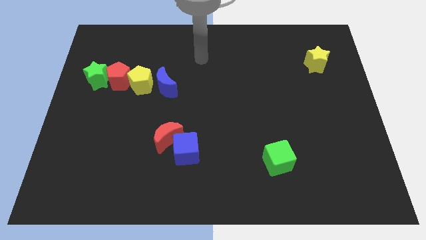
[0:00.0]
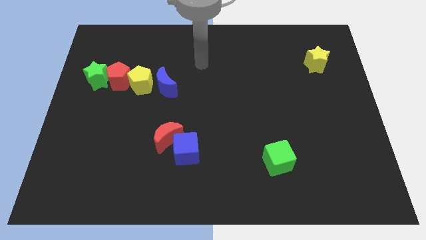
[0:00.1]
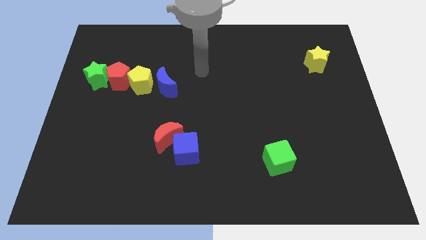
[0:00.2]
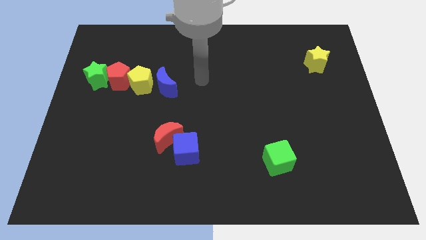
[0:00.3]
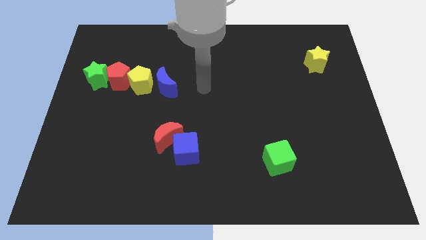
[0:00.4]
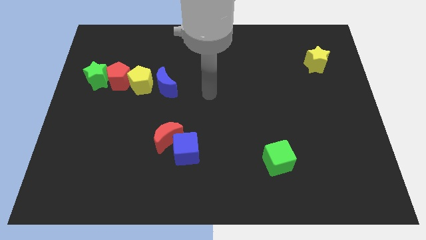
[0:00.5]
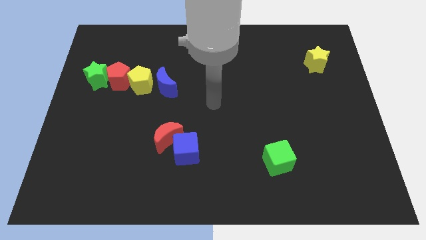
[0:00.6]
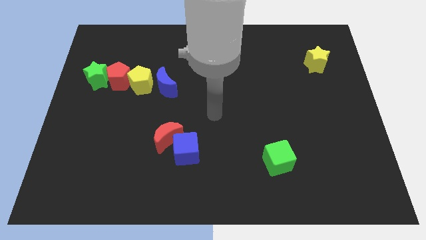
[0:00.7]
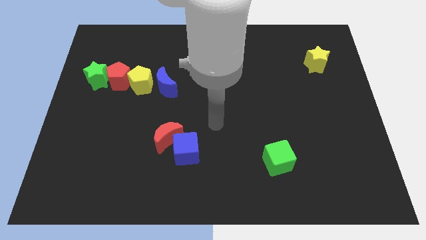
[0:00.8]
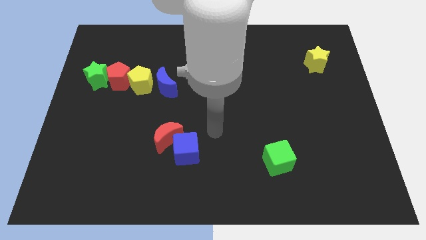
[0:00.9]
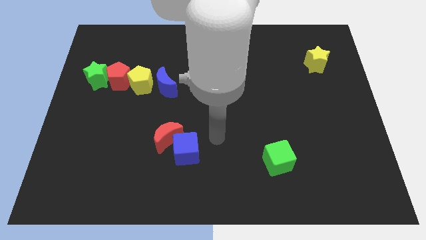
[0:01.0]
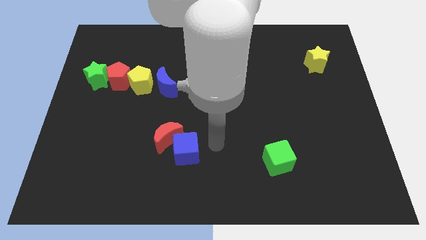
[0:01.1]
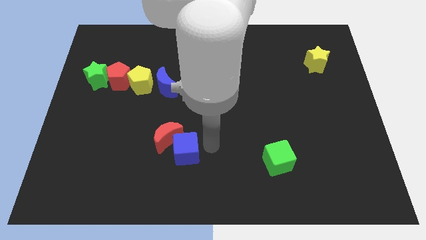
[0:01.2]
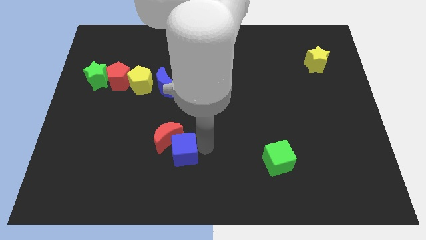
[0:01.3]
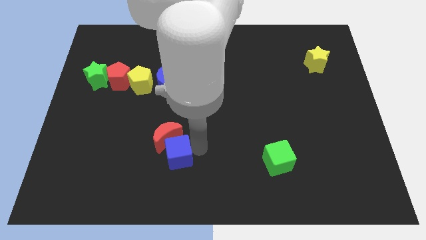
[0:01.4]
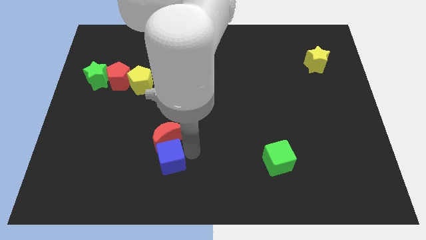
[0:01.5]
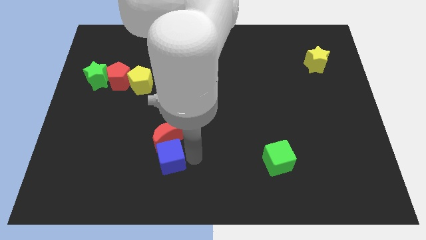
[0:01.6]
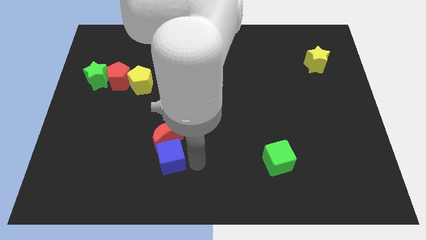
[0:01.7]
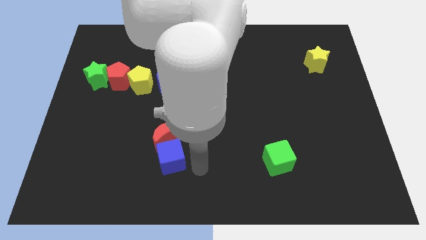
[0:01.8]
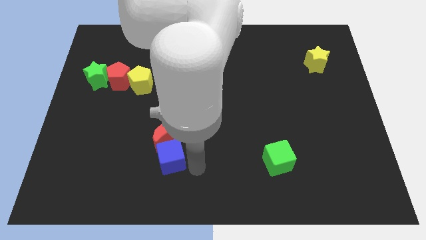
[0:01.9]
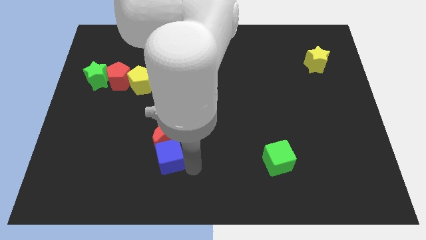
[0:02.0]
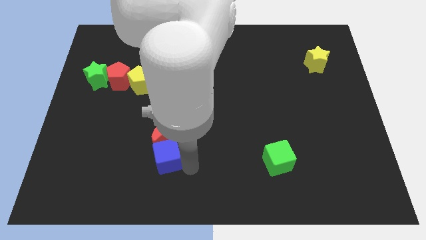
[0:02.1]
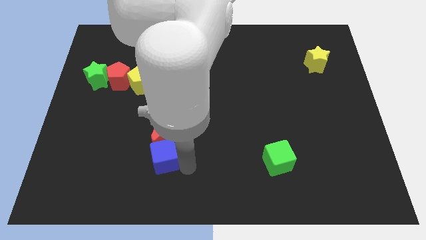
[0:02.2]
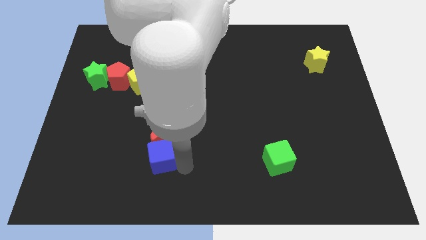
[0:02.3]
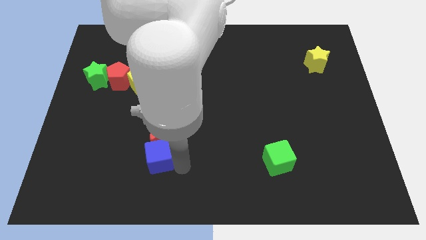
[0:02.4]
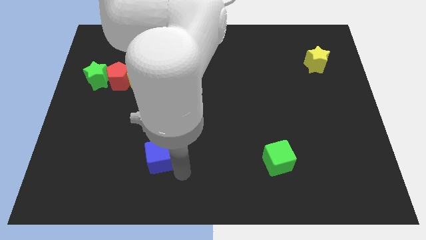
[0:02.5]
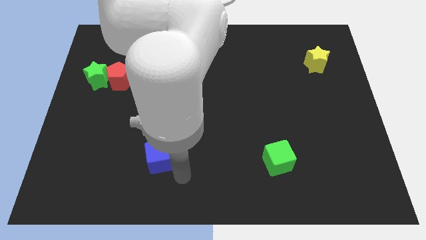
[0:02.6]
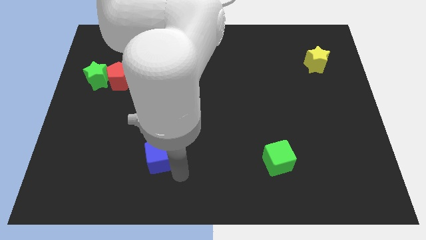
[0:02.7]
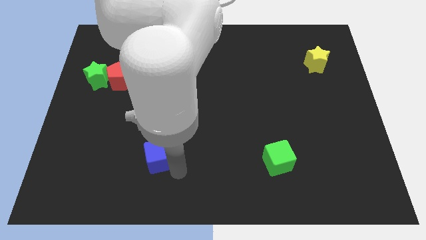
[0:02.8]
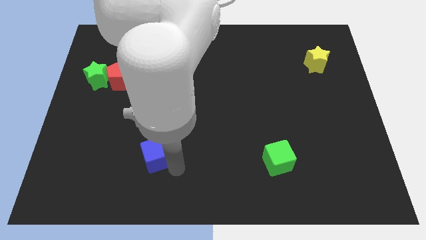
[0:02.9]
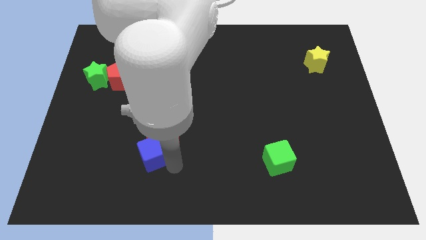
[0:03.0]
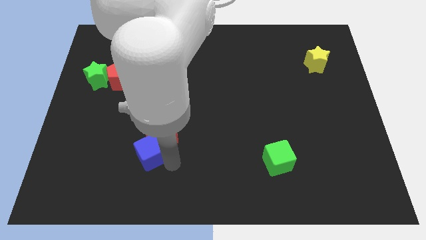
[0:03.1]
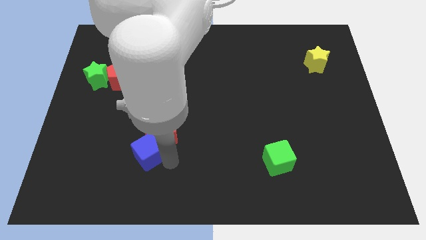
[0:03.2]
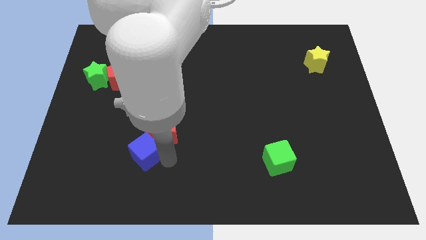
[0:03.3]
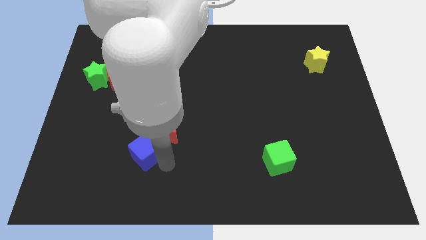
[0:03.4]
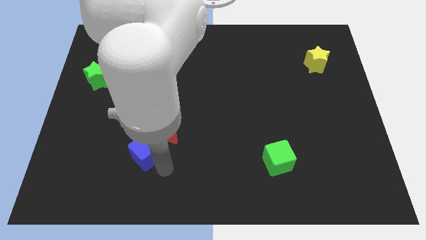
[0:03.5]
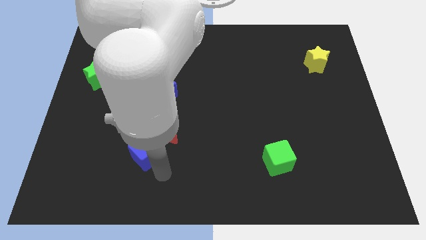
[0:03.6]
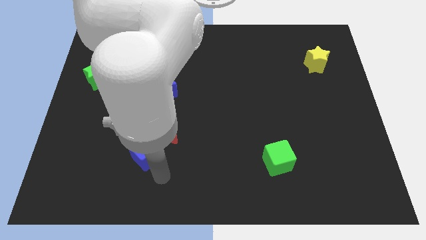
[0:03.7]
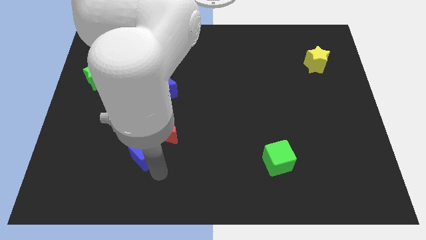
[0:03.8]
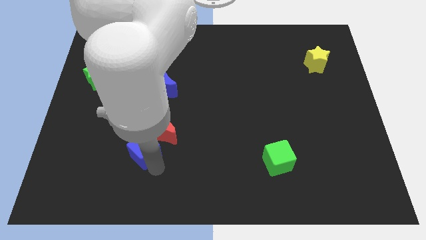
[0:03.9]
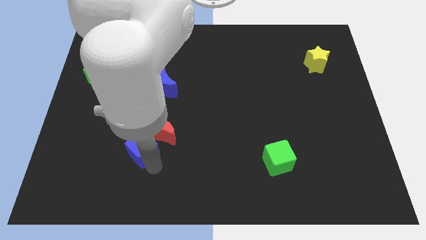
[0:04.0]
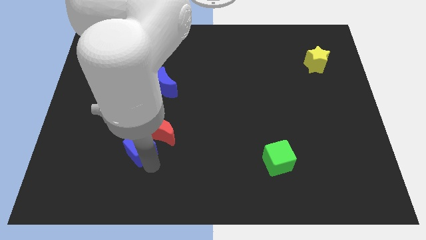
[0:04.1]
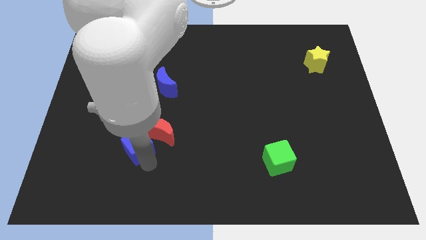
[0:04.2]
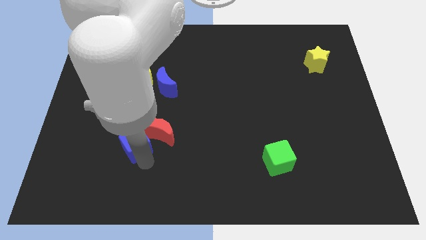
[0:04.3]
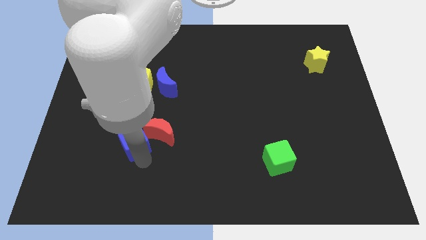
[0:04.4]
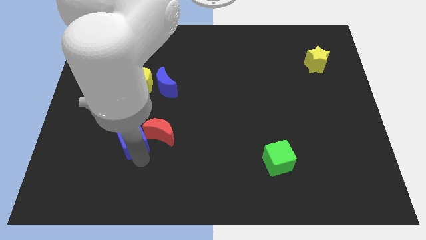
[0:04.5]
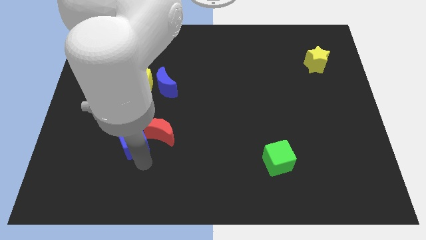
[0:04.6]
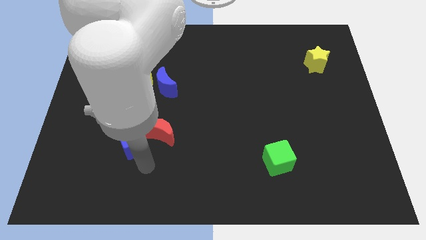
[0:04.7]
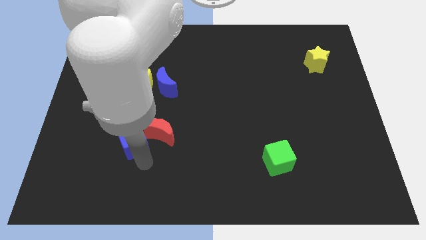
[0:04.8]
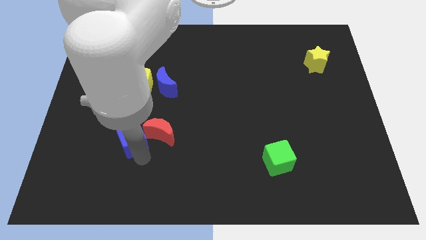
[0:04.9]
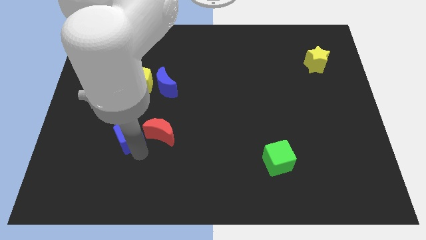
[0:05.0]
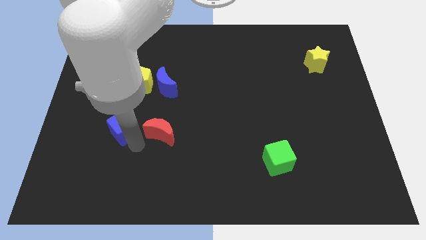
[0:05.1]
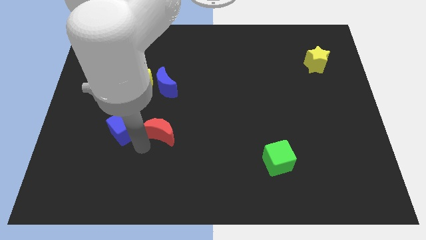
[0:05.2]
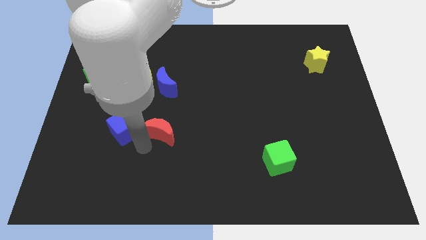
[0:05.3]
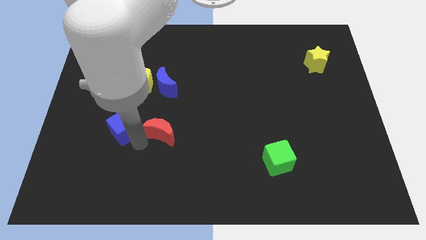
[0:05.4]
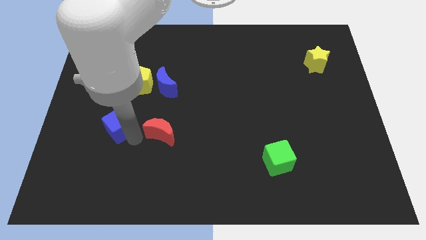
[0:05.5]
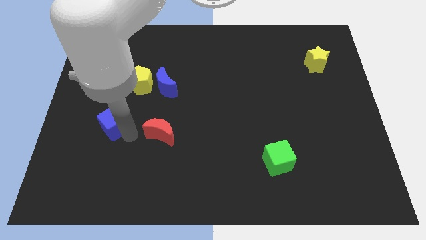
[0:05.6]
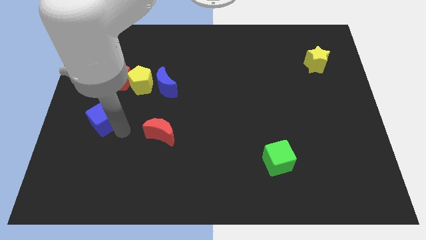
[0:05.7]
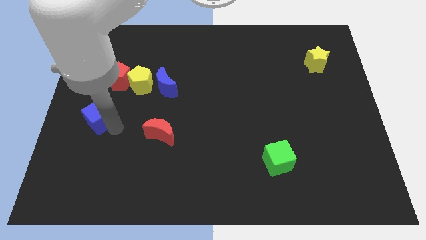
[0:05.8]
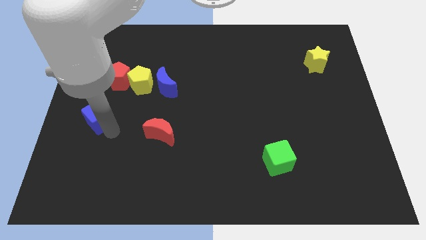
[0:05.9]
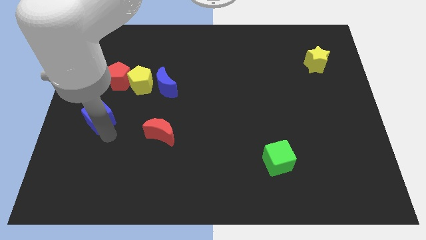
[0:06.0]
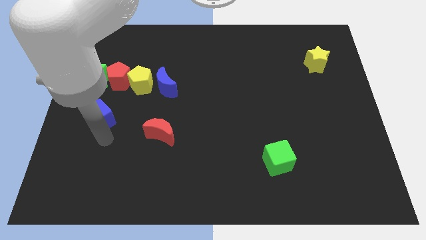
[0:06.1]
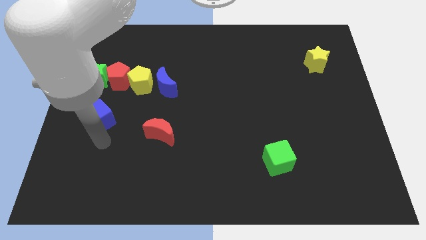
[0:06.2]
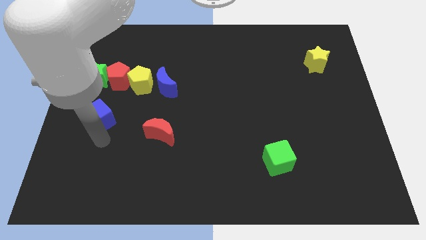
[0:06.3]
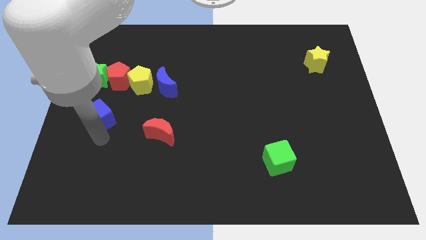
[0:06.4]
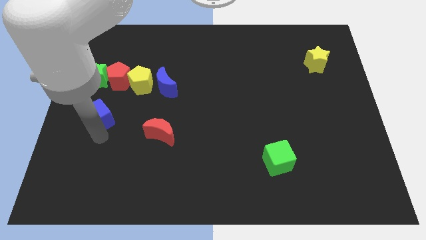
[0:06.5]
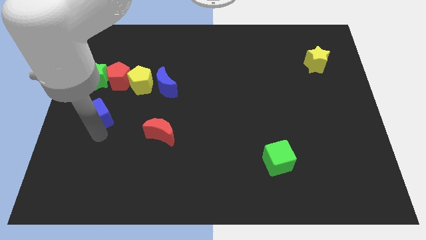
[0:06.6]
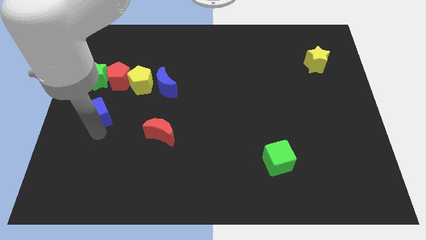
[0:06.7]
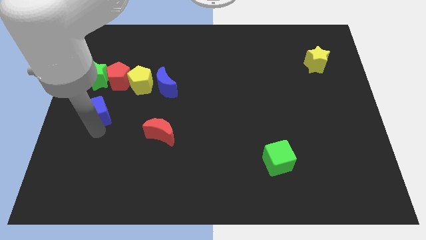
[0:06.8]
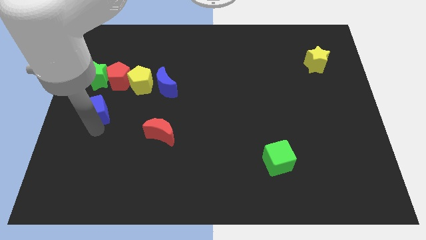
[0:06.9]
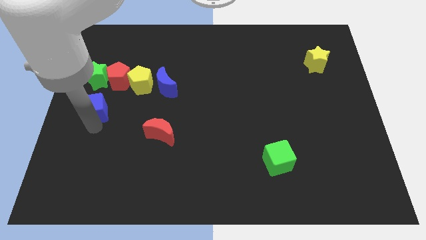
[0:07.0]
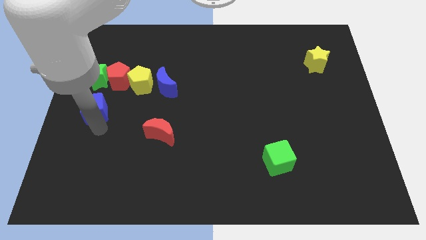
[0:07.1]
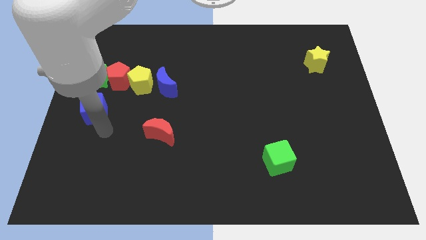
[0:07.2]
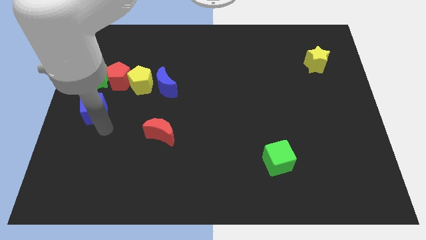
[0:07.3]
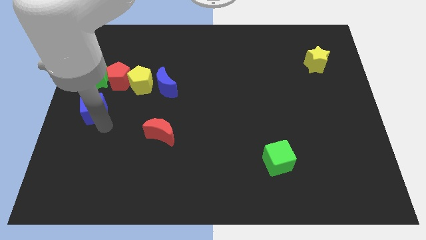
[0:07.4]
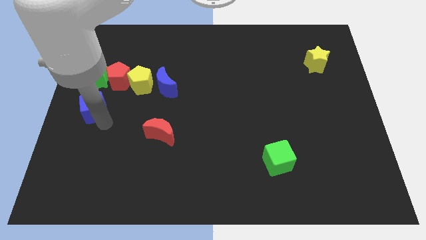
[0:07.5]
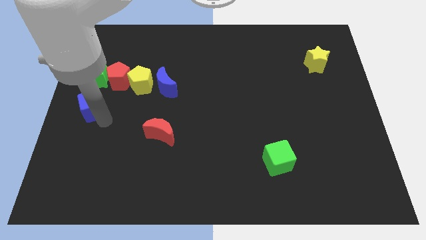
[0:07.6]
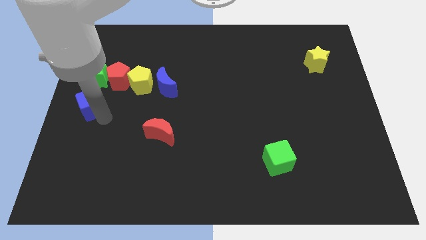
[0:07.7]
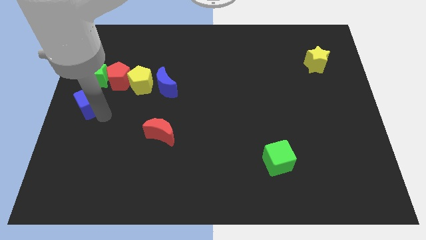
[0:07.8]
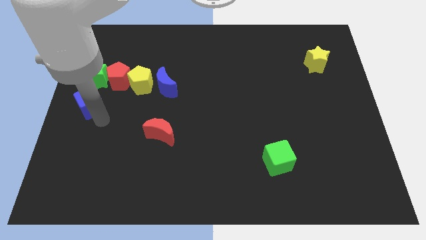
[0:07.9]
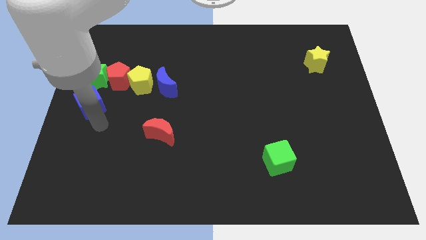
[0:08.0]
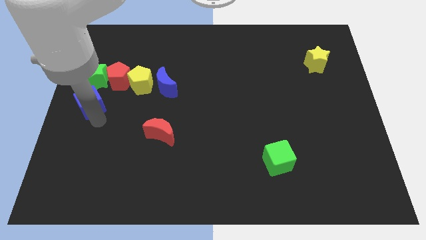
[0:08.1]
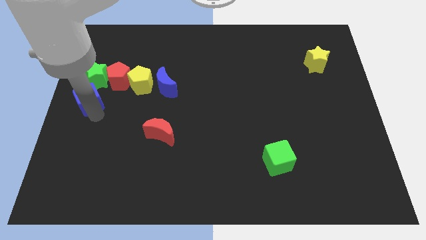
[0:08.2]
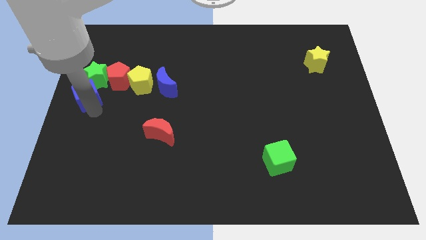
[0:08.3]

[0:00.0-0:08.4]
move the blue cube left of the yellow pentagon
